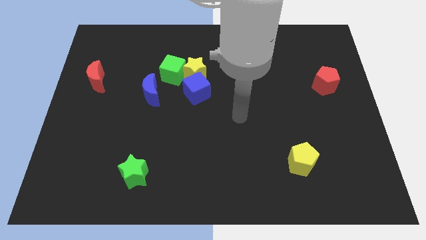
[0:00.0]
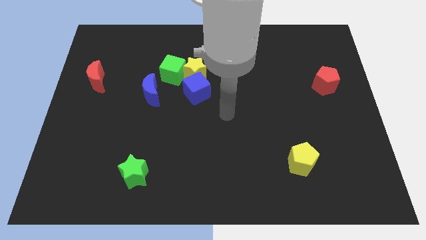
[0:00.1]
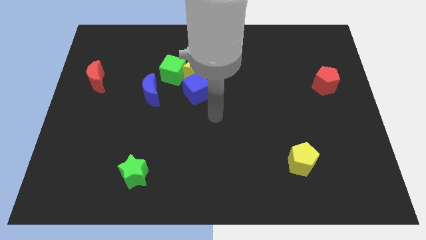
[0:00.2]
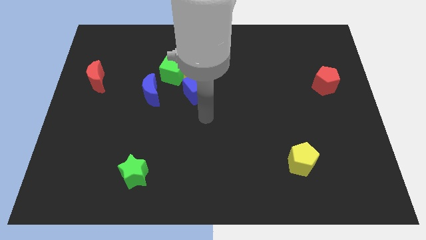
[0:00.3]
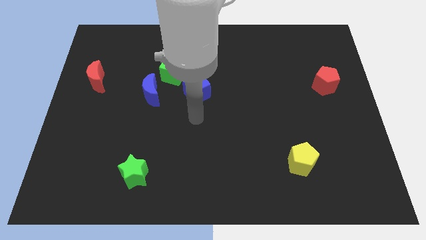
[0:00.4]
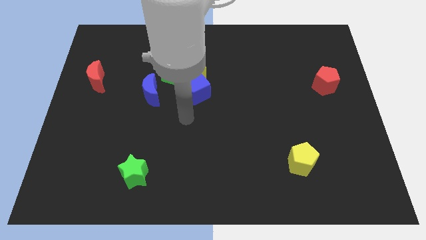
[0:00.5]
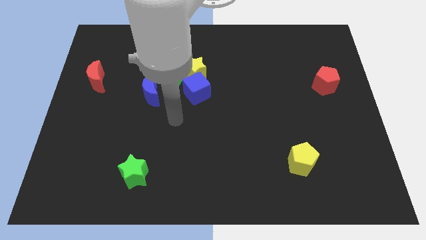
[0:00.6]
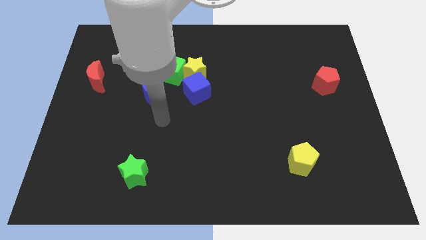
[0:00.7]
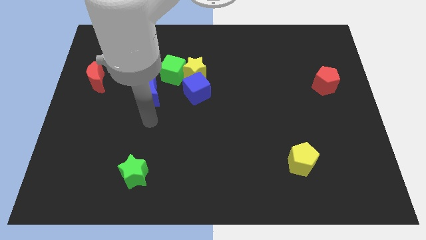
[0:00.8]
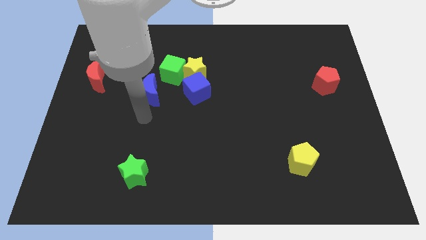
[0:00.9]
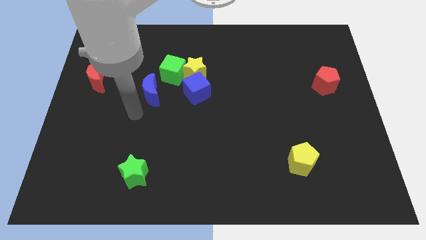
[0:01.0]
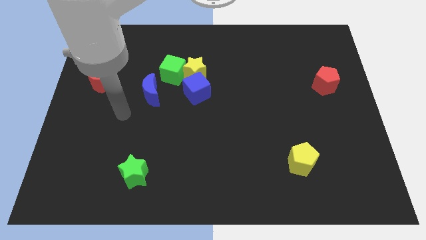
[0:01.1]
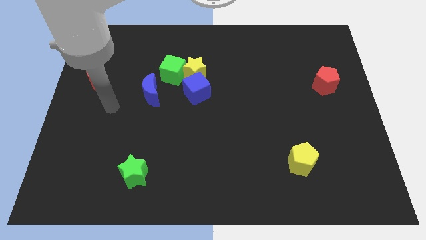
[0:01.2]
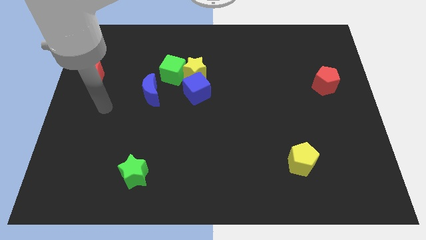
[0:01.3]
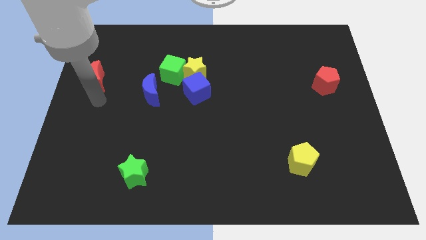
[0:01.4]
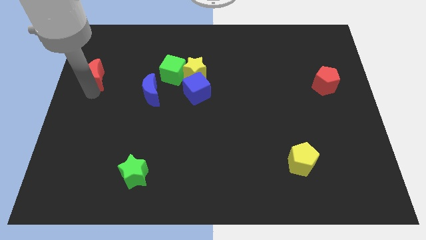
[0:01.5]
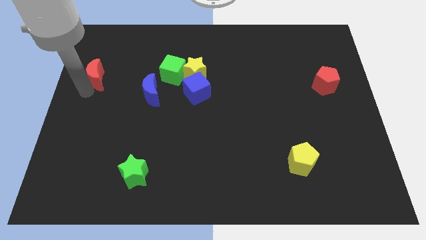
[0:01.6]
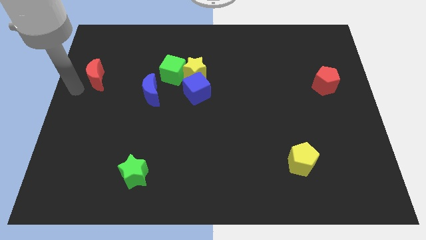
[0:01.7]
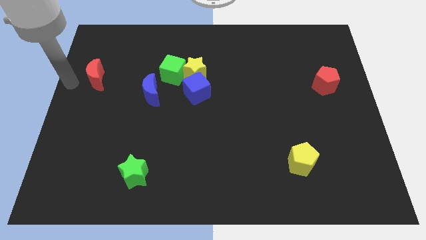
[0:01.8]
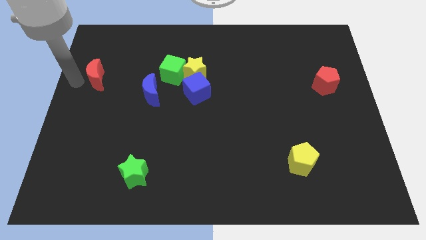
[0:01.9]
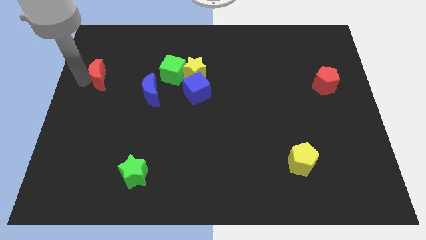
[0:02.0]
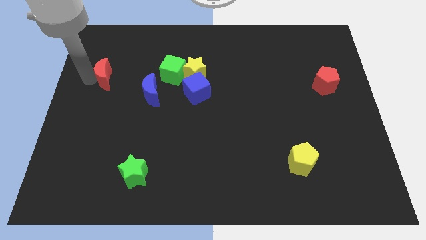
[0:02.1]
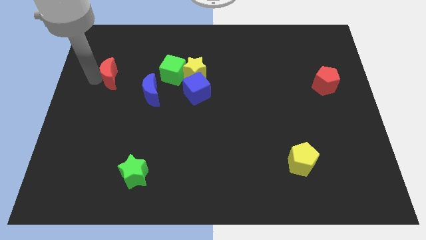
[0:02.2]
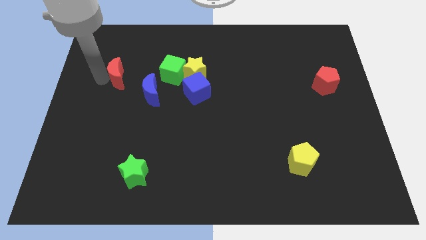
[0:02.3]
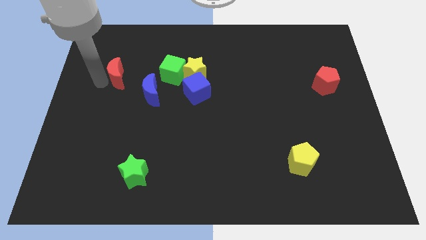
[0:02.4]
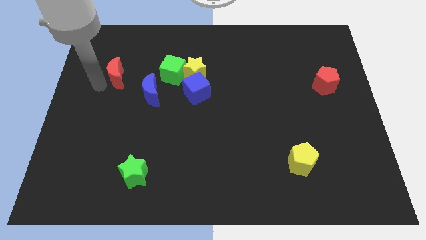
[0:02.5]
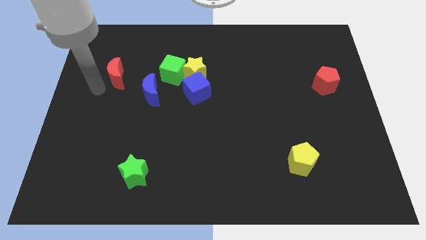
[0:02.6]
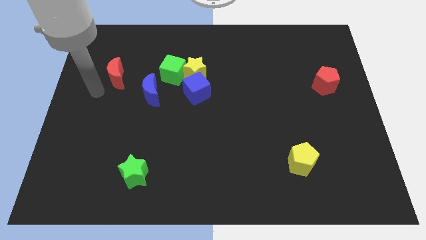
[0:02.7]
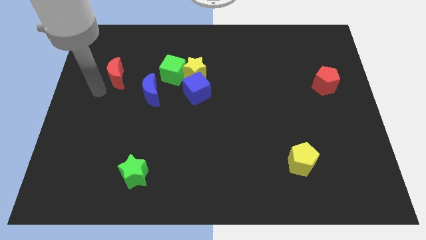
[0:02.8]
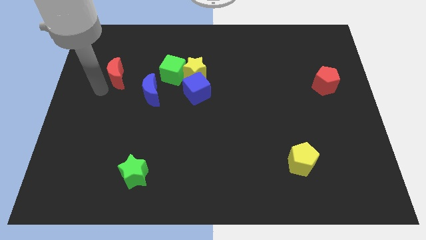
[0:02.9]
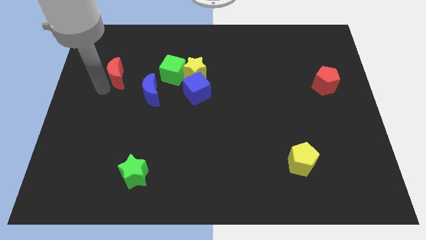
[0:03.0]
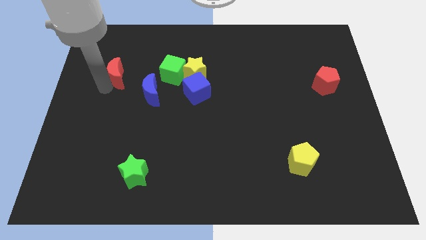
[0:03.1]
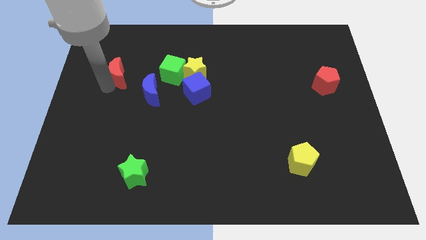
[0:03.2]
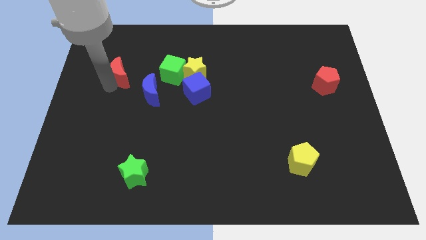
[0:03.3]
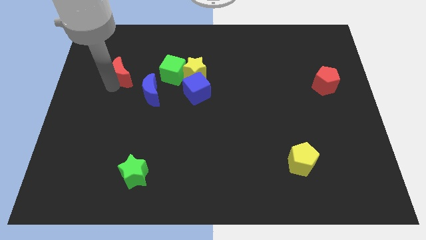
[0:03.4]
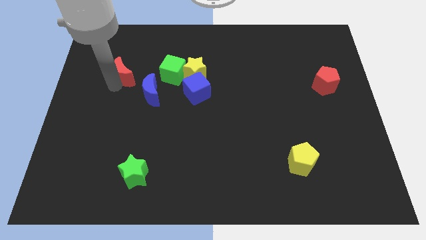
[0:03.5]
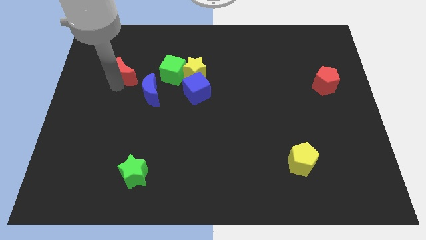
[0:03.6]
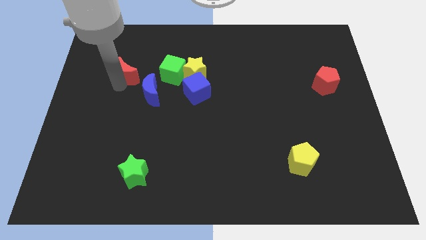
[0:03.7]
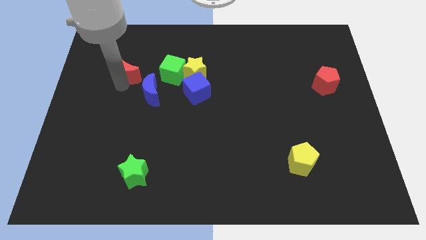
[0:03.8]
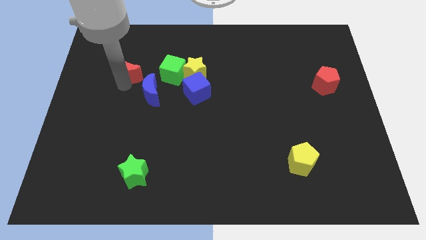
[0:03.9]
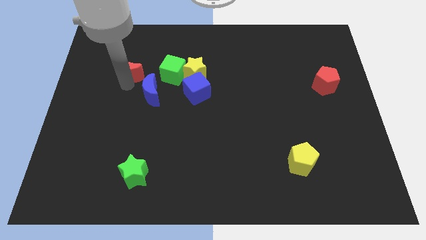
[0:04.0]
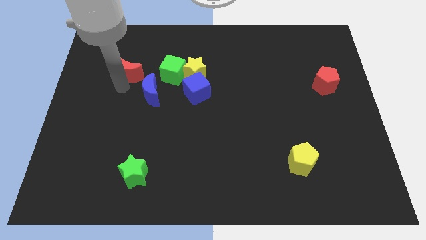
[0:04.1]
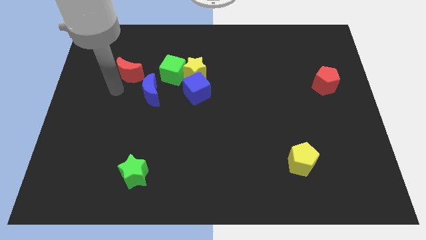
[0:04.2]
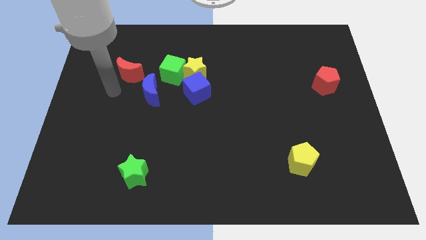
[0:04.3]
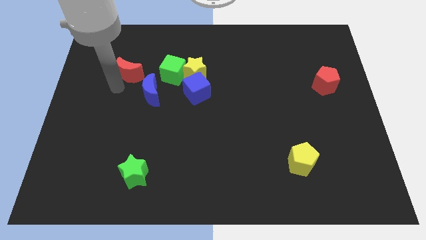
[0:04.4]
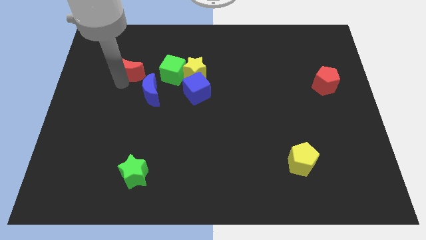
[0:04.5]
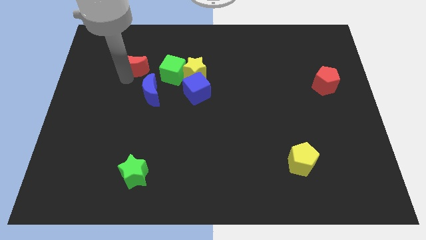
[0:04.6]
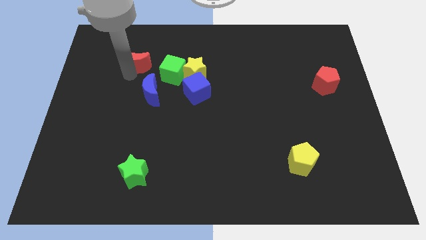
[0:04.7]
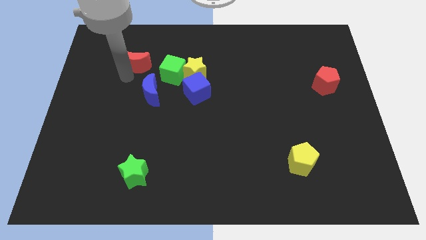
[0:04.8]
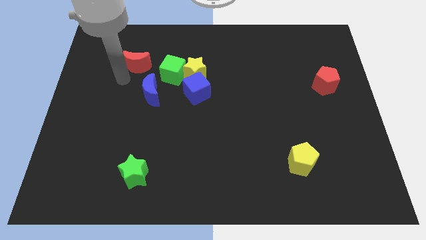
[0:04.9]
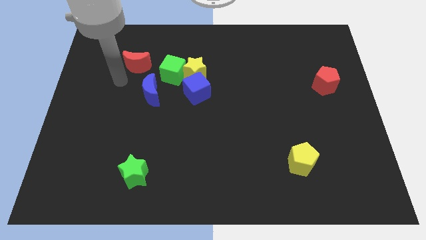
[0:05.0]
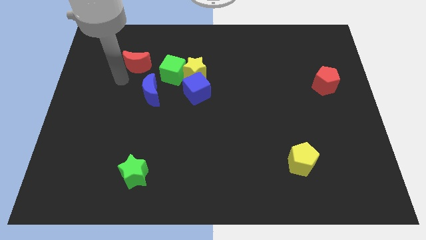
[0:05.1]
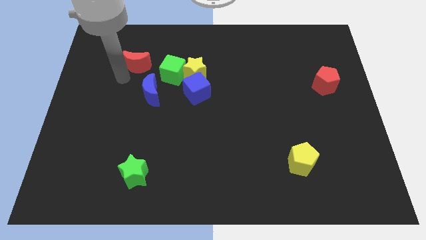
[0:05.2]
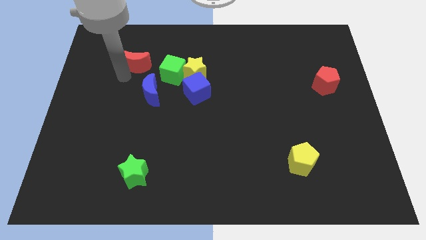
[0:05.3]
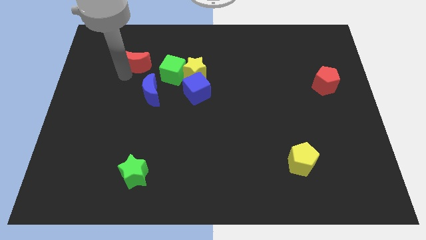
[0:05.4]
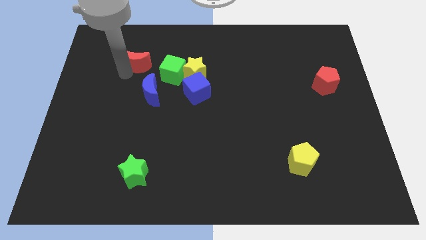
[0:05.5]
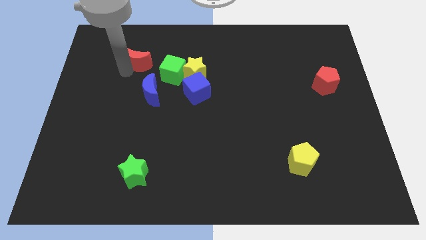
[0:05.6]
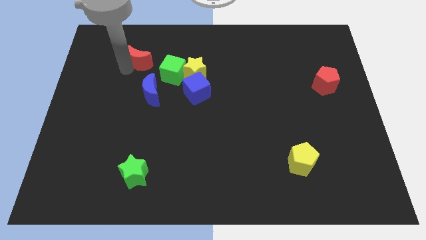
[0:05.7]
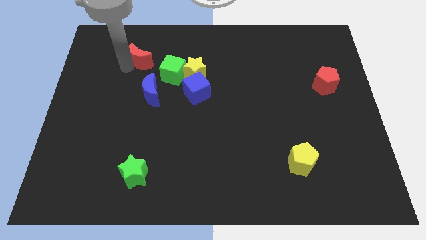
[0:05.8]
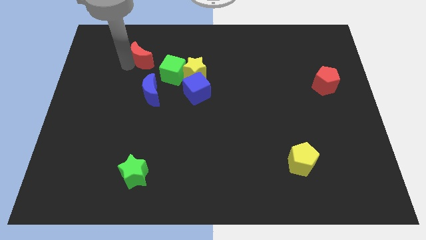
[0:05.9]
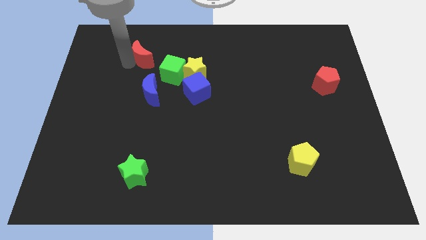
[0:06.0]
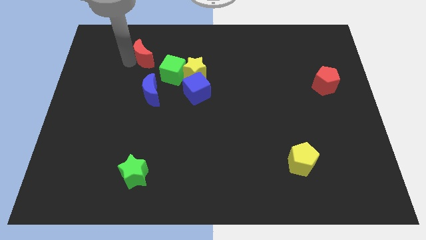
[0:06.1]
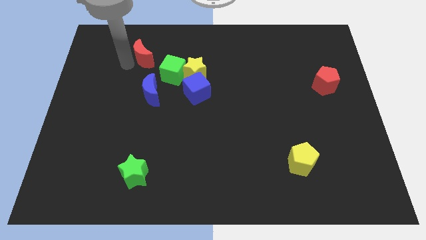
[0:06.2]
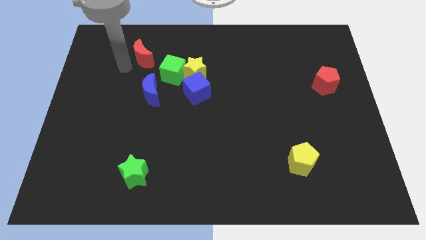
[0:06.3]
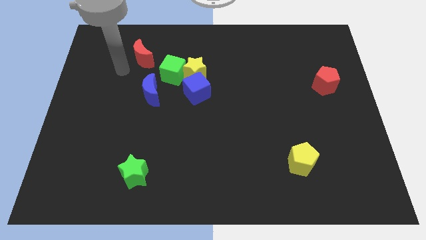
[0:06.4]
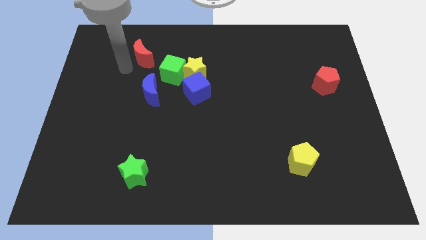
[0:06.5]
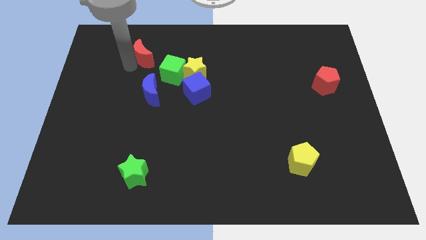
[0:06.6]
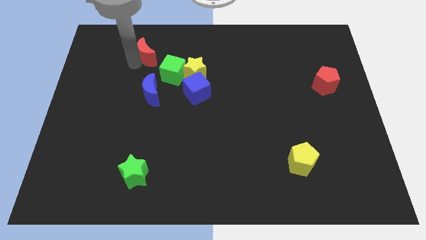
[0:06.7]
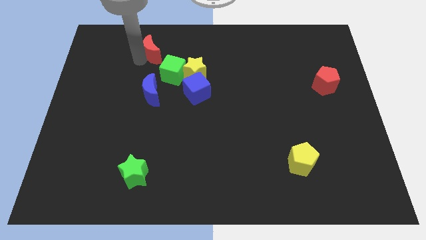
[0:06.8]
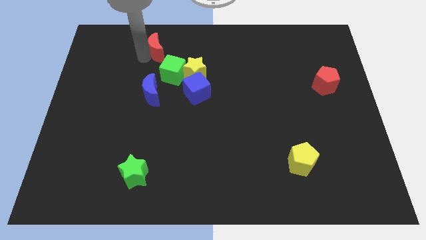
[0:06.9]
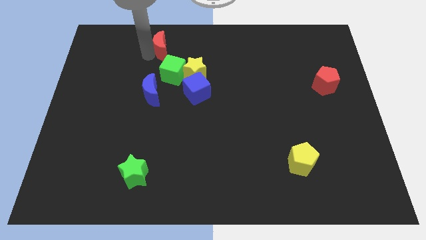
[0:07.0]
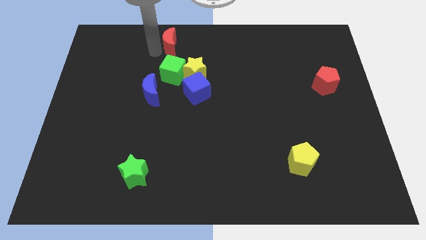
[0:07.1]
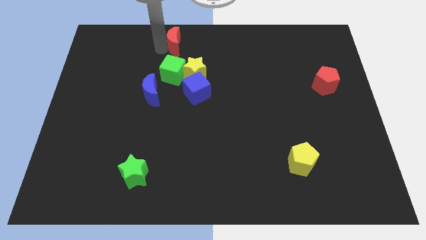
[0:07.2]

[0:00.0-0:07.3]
put the red moon to the towards your base
